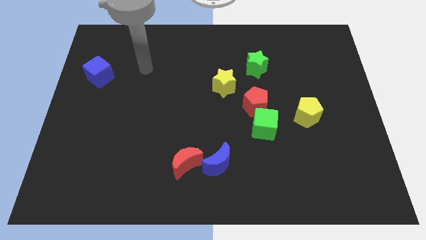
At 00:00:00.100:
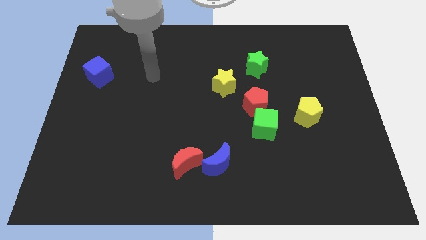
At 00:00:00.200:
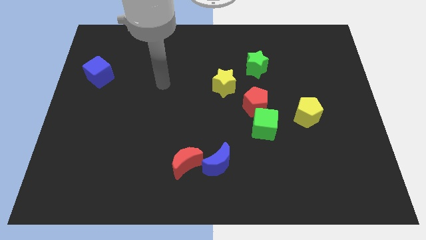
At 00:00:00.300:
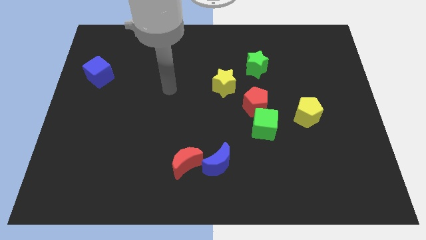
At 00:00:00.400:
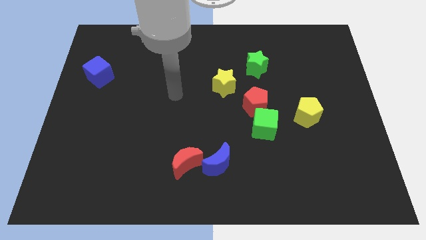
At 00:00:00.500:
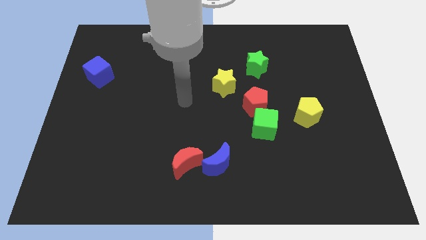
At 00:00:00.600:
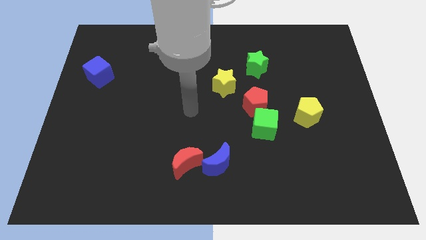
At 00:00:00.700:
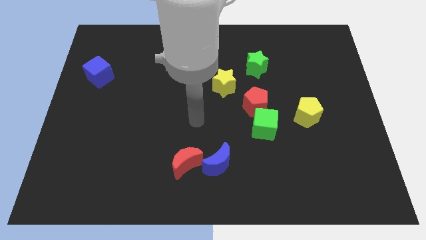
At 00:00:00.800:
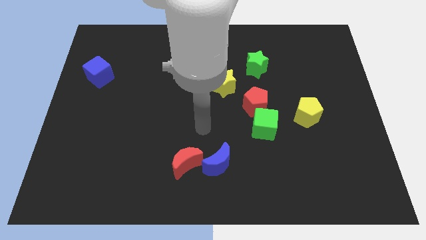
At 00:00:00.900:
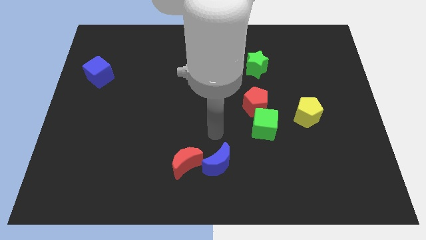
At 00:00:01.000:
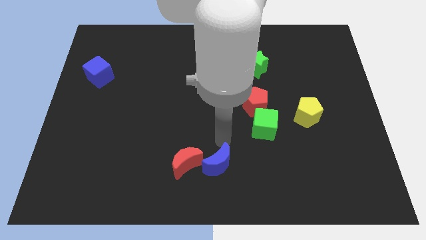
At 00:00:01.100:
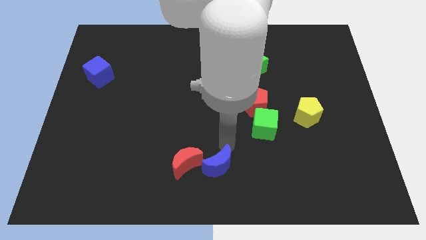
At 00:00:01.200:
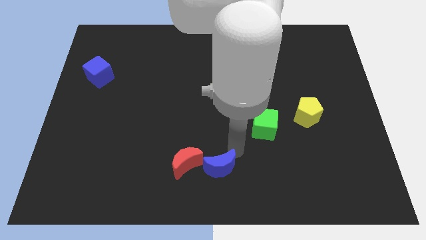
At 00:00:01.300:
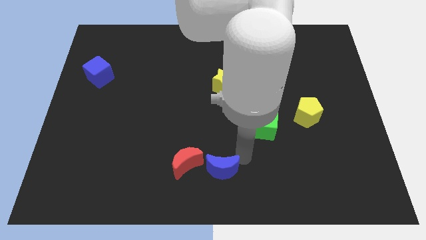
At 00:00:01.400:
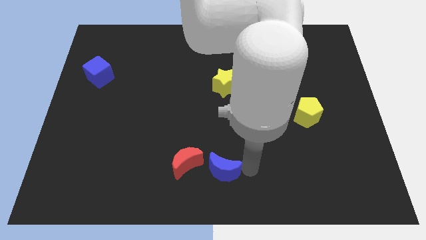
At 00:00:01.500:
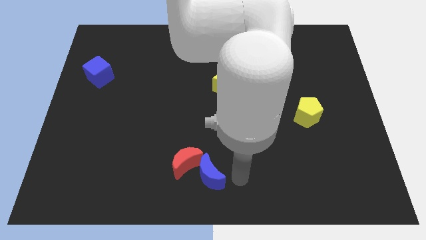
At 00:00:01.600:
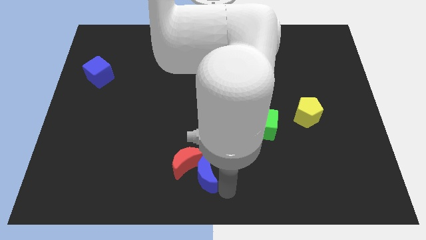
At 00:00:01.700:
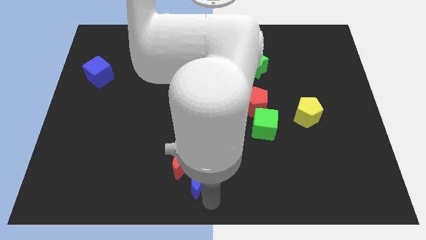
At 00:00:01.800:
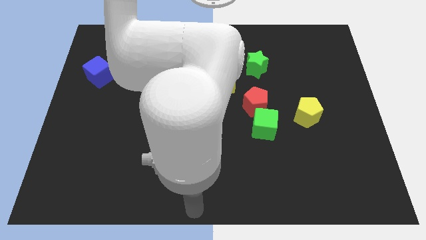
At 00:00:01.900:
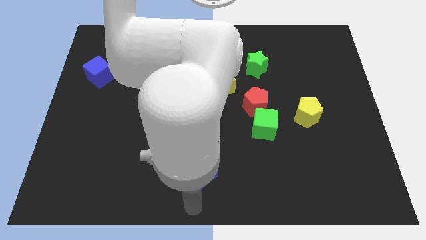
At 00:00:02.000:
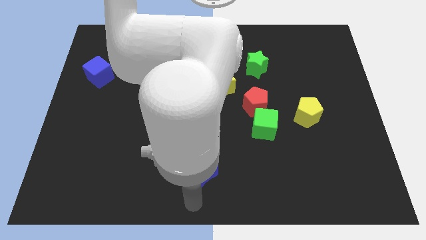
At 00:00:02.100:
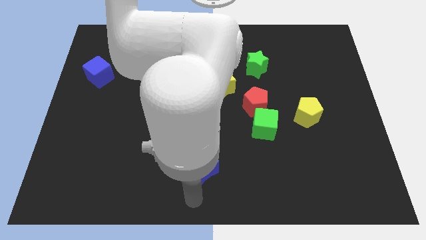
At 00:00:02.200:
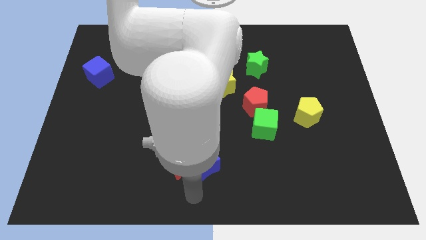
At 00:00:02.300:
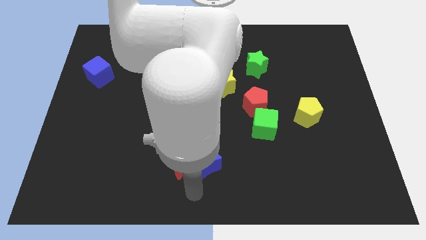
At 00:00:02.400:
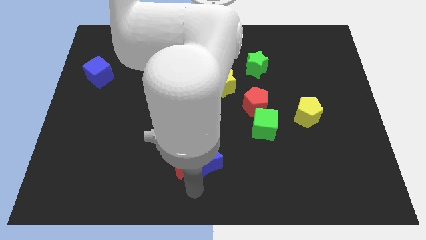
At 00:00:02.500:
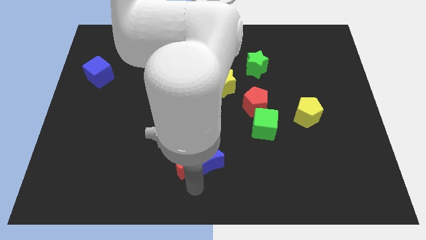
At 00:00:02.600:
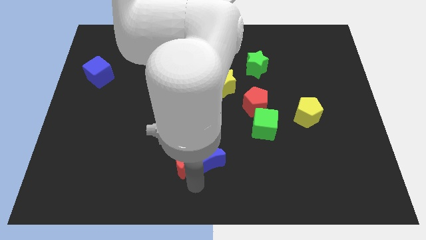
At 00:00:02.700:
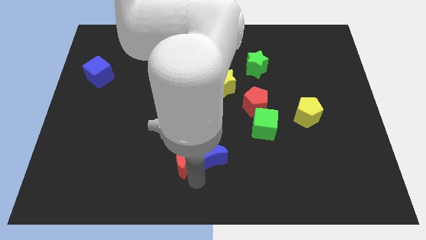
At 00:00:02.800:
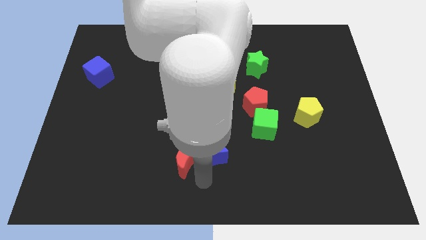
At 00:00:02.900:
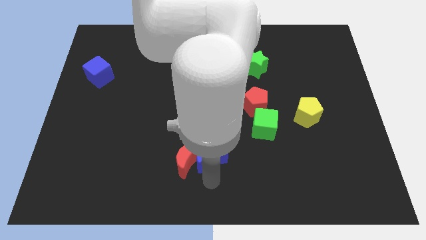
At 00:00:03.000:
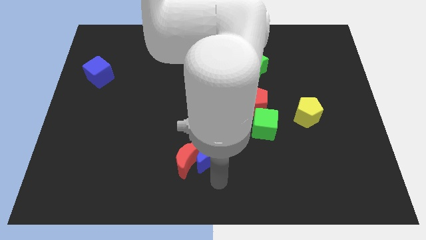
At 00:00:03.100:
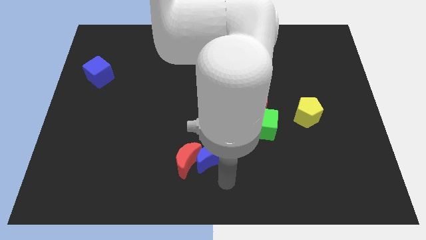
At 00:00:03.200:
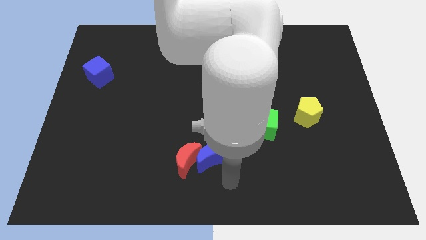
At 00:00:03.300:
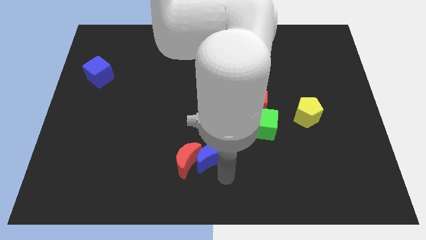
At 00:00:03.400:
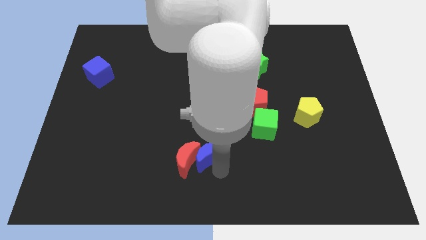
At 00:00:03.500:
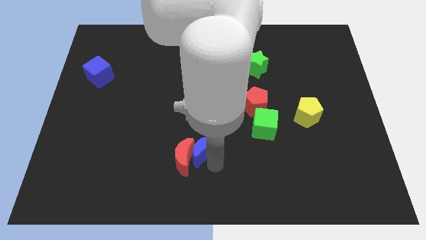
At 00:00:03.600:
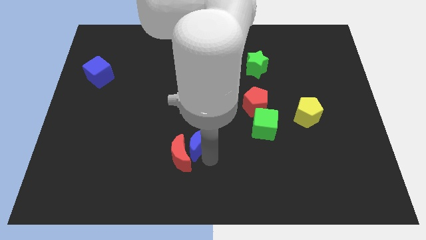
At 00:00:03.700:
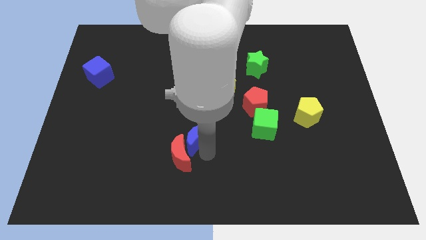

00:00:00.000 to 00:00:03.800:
slightly push the blue moon upwards and then left

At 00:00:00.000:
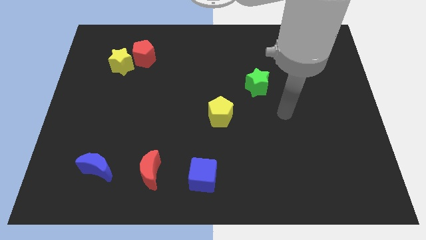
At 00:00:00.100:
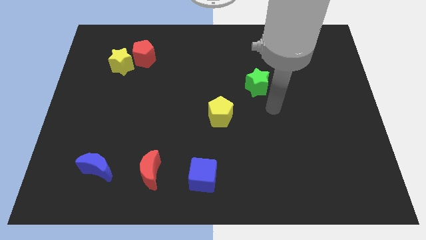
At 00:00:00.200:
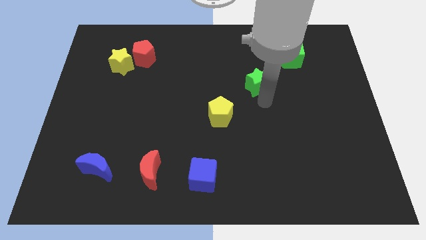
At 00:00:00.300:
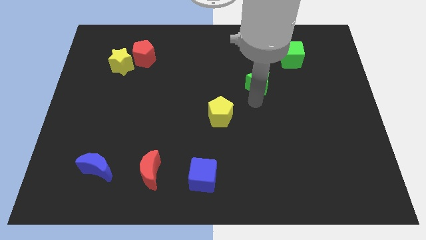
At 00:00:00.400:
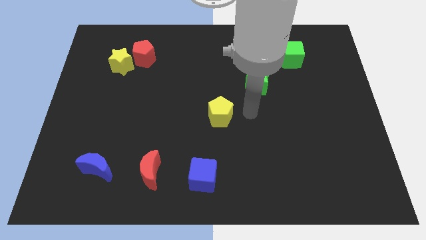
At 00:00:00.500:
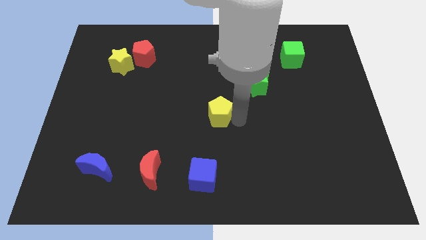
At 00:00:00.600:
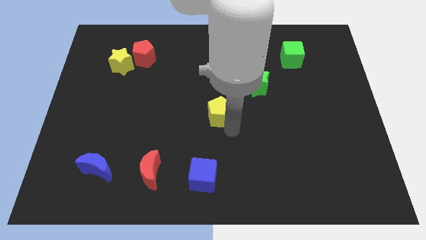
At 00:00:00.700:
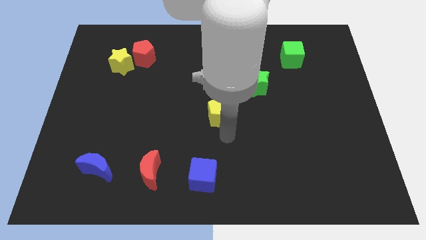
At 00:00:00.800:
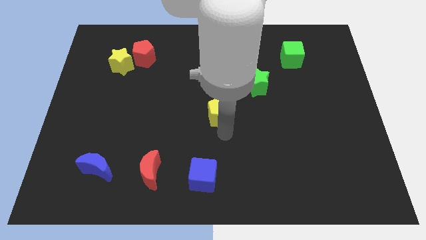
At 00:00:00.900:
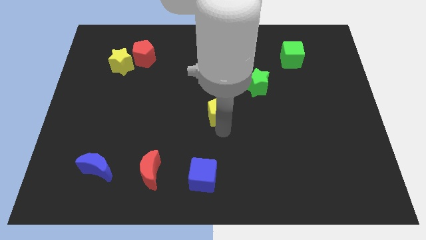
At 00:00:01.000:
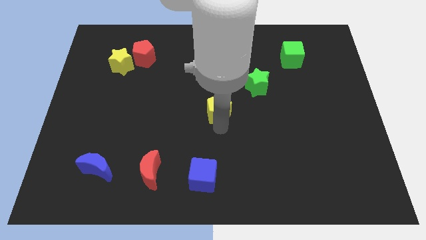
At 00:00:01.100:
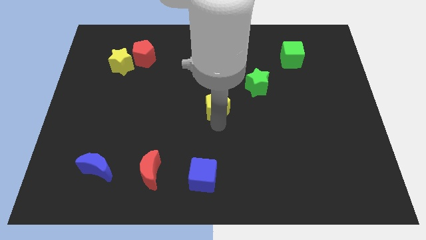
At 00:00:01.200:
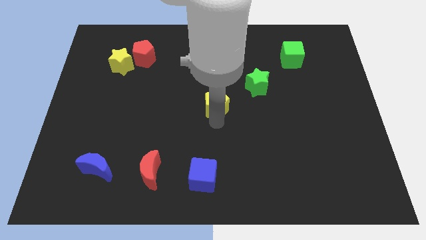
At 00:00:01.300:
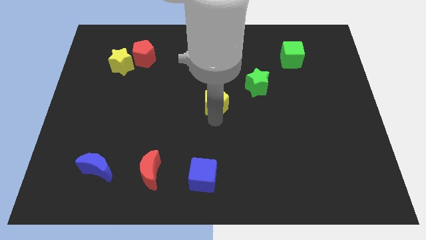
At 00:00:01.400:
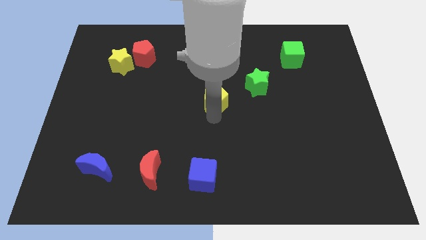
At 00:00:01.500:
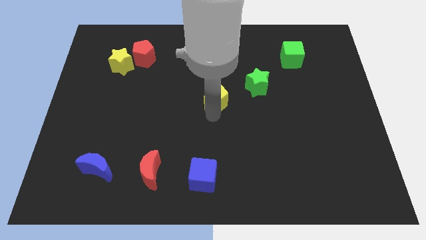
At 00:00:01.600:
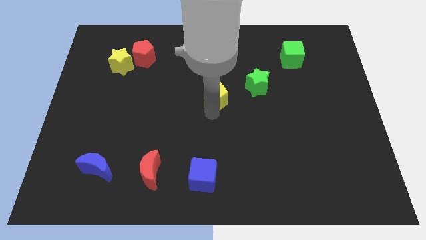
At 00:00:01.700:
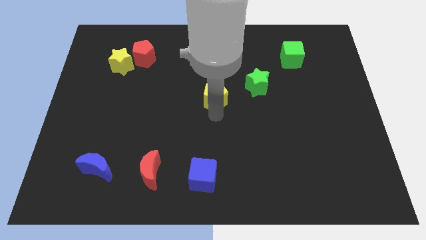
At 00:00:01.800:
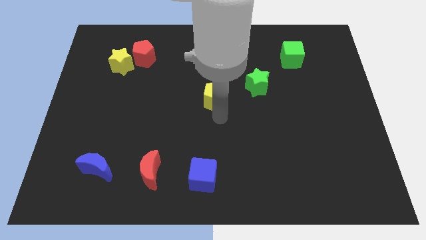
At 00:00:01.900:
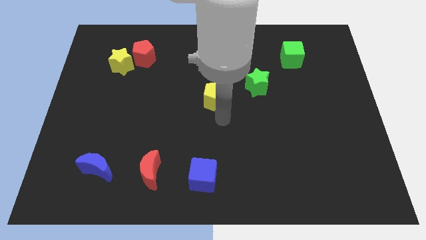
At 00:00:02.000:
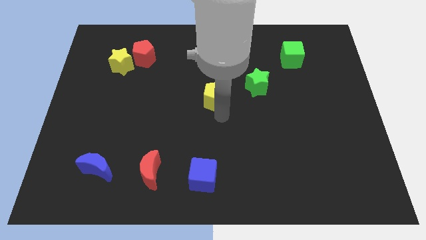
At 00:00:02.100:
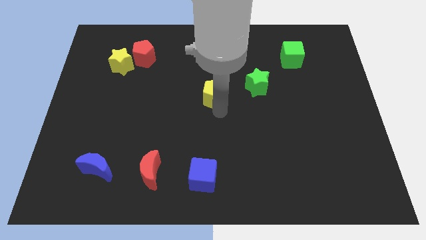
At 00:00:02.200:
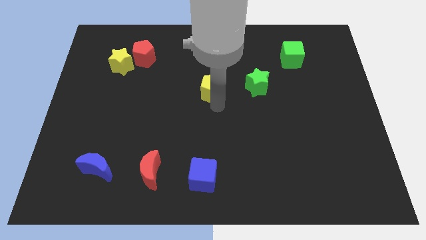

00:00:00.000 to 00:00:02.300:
slightly push the yellow pentagon upwards

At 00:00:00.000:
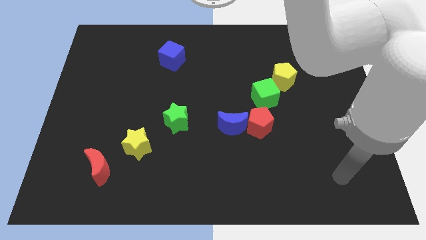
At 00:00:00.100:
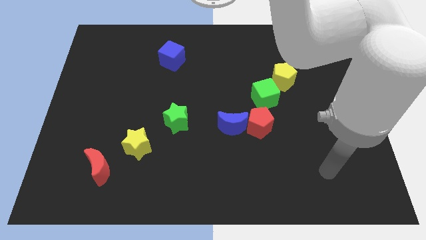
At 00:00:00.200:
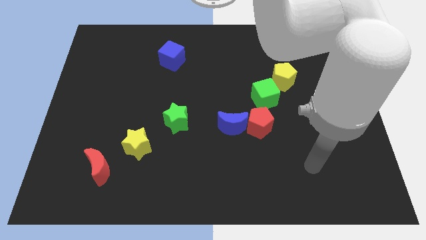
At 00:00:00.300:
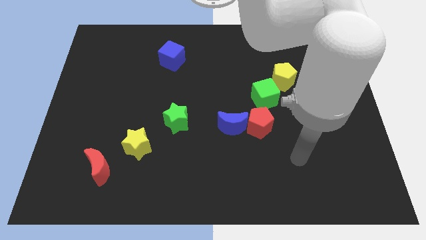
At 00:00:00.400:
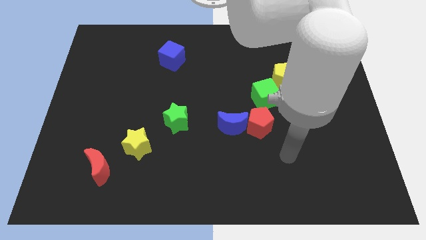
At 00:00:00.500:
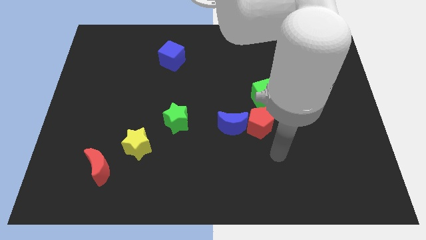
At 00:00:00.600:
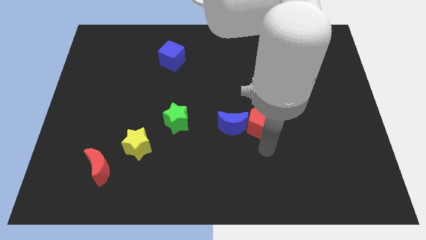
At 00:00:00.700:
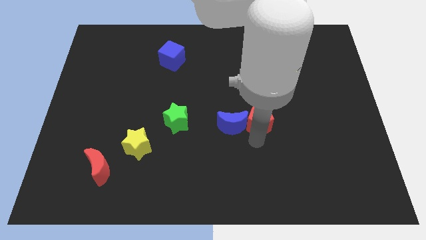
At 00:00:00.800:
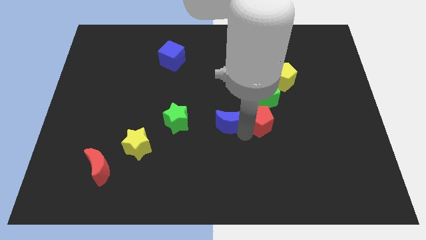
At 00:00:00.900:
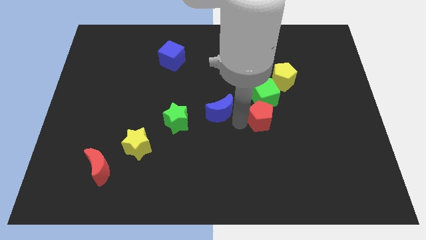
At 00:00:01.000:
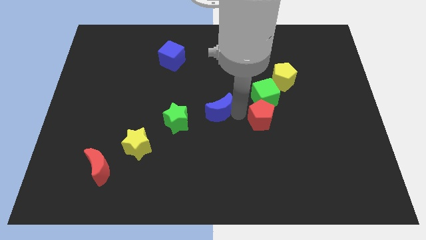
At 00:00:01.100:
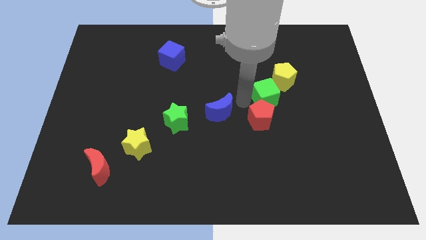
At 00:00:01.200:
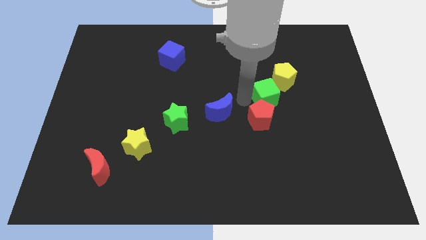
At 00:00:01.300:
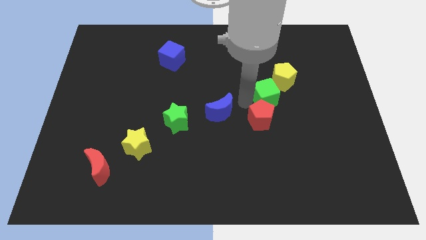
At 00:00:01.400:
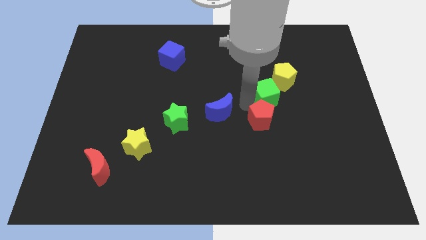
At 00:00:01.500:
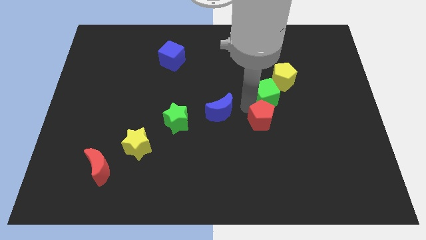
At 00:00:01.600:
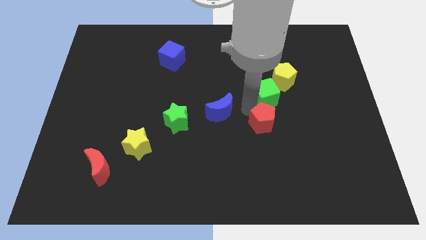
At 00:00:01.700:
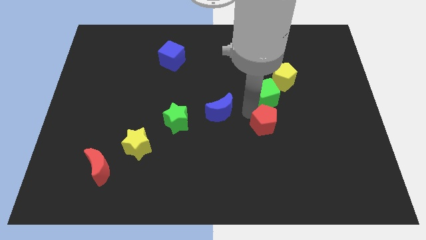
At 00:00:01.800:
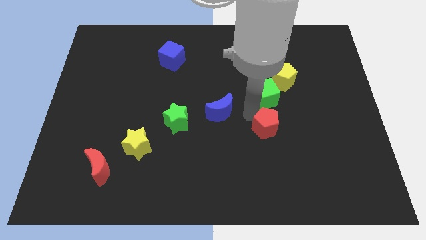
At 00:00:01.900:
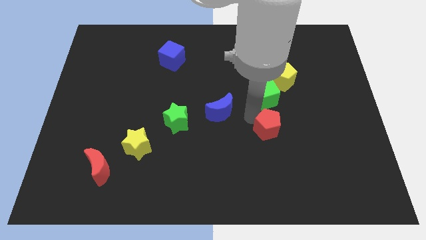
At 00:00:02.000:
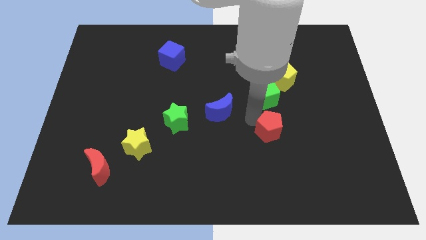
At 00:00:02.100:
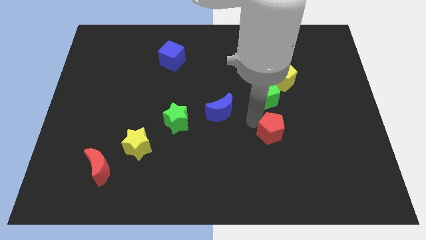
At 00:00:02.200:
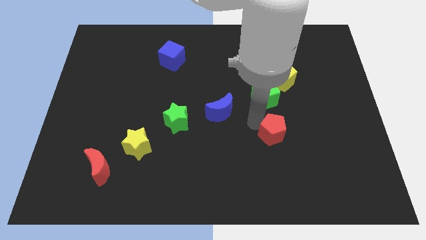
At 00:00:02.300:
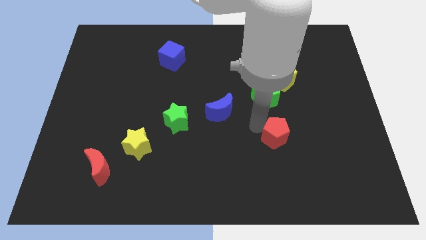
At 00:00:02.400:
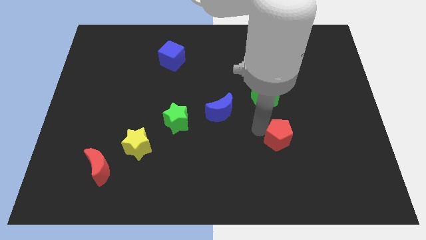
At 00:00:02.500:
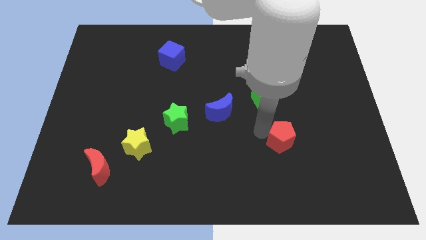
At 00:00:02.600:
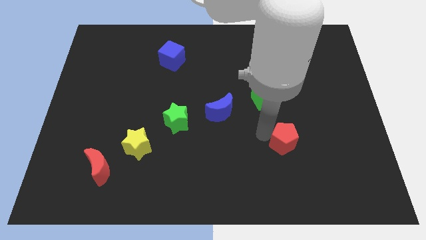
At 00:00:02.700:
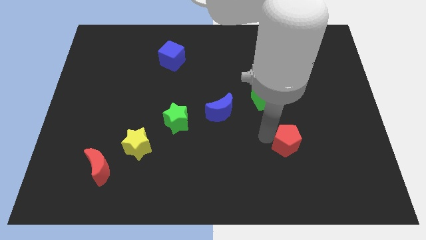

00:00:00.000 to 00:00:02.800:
slightly move the red pentagon downwards and right diagonally
